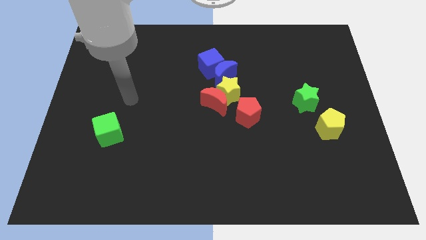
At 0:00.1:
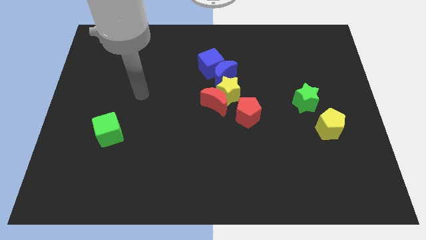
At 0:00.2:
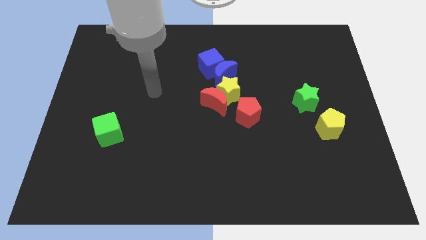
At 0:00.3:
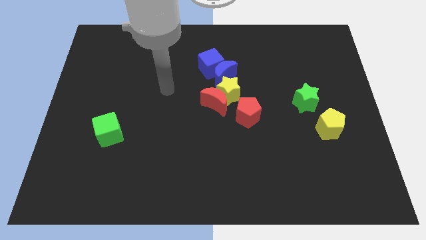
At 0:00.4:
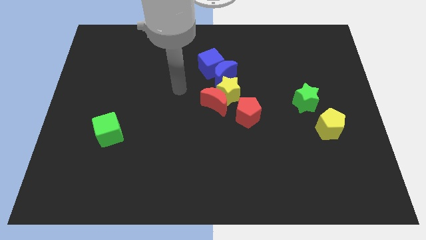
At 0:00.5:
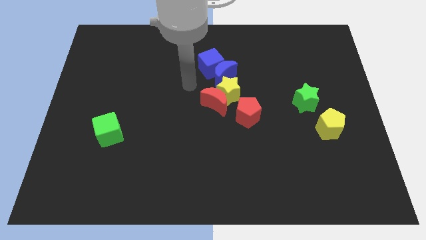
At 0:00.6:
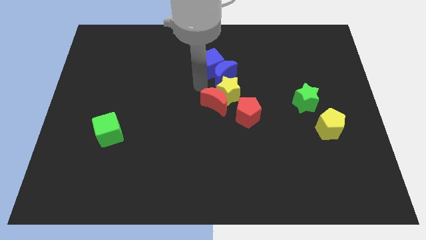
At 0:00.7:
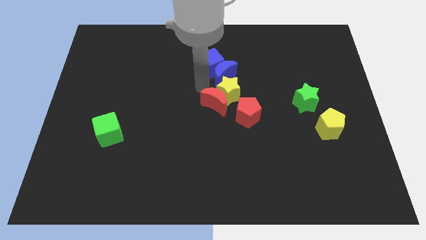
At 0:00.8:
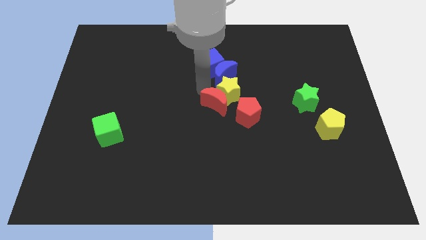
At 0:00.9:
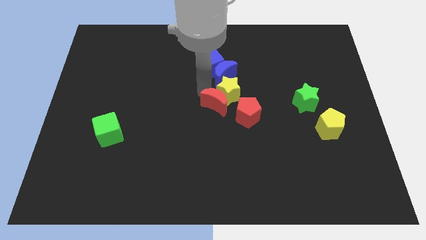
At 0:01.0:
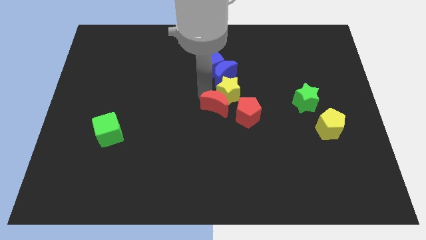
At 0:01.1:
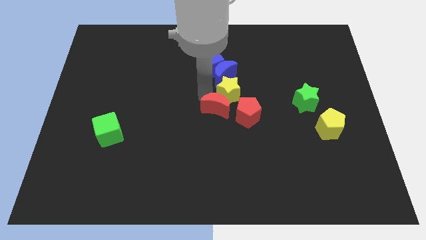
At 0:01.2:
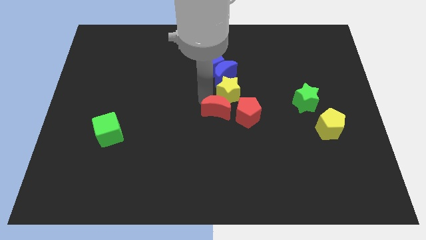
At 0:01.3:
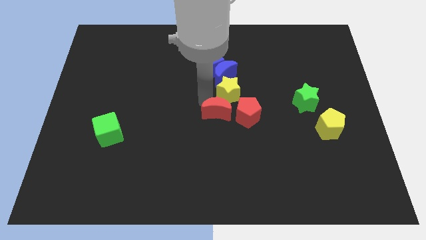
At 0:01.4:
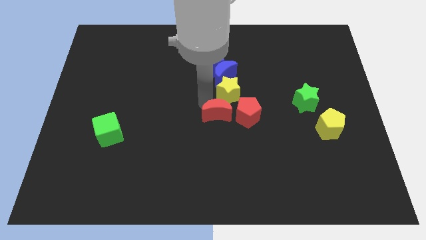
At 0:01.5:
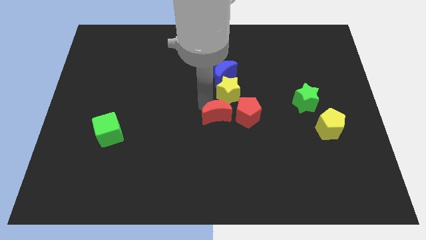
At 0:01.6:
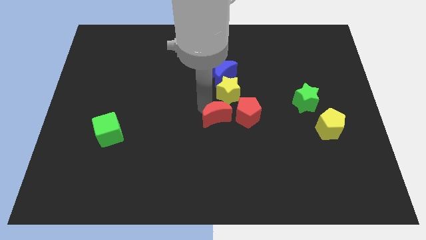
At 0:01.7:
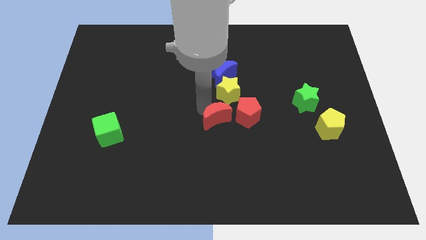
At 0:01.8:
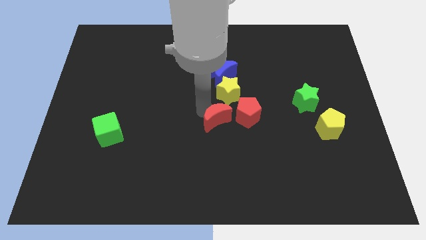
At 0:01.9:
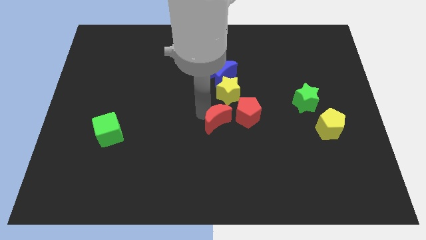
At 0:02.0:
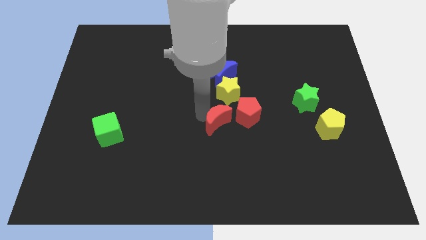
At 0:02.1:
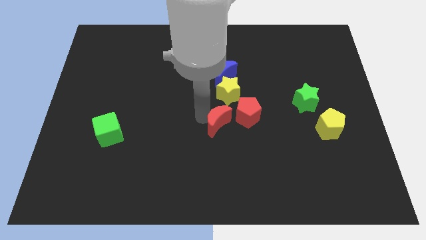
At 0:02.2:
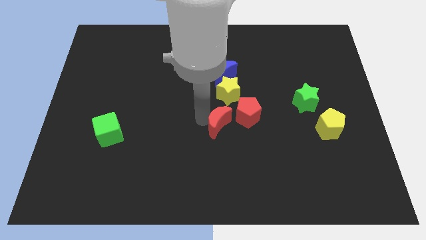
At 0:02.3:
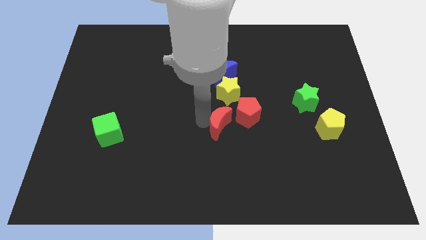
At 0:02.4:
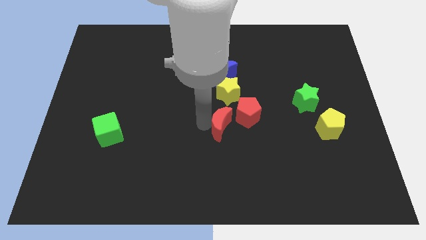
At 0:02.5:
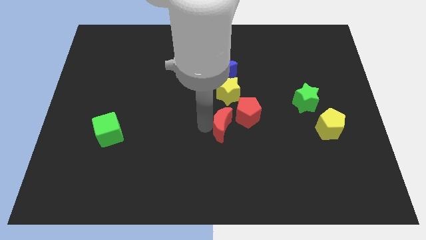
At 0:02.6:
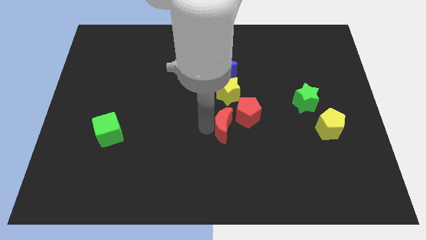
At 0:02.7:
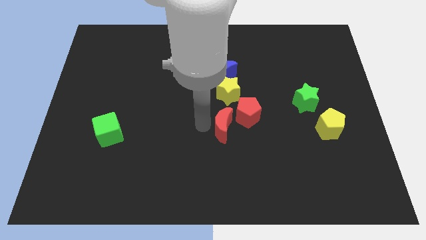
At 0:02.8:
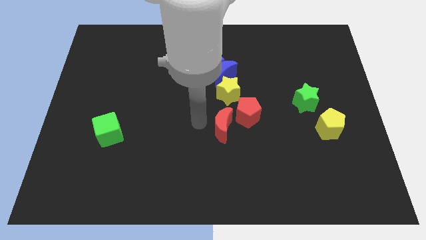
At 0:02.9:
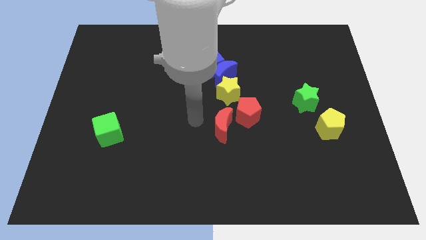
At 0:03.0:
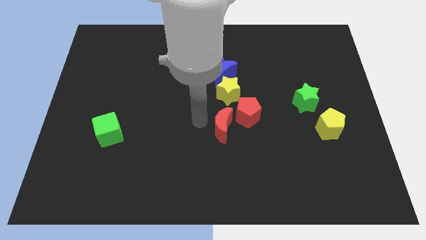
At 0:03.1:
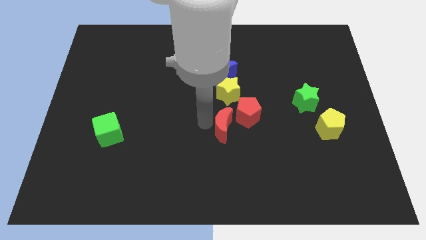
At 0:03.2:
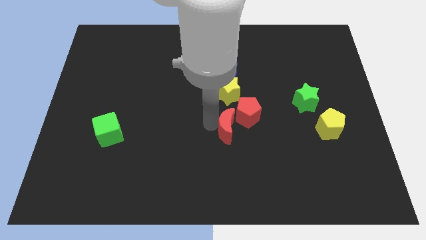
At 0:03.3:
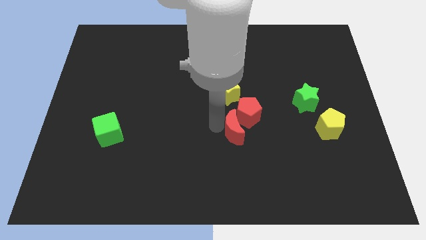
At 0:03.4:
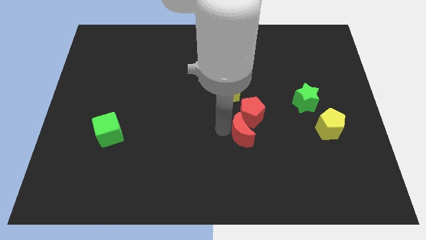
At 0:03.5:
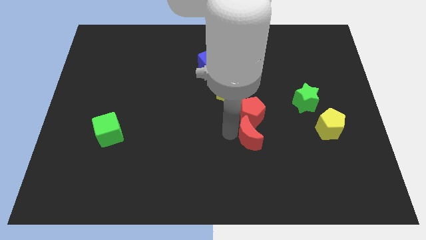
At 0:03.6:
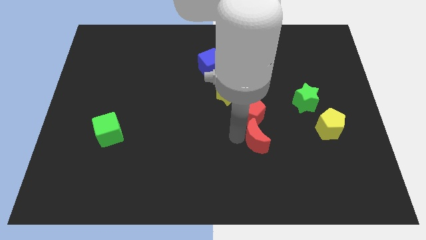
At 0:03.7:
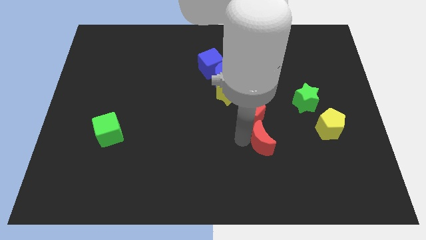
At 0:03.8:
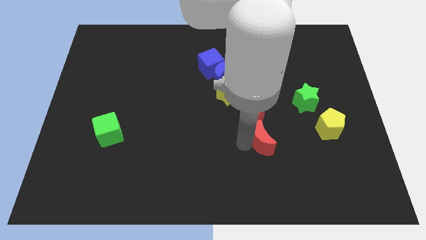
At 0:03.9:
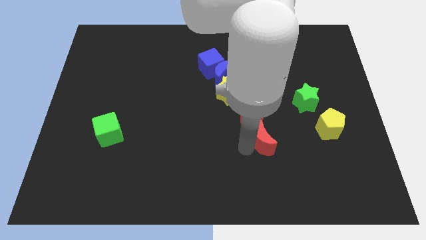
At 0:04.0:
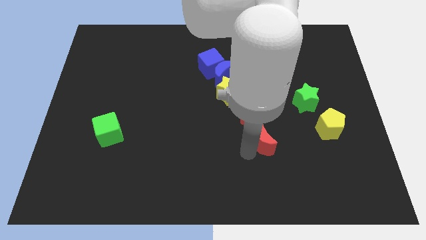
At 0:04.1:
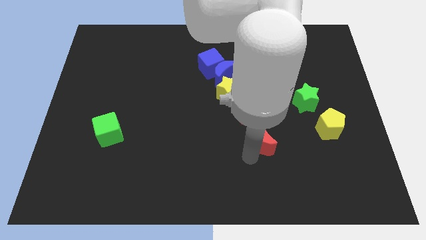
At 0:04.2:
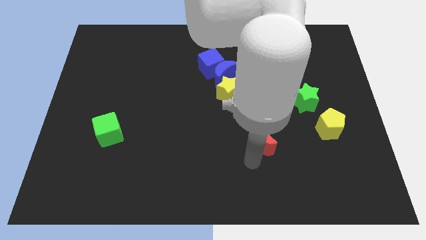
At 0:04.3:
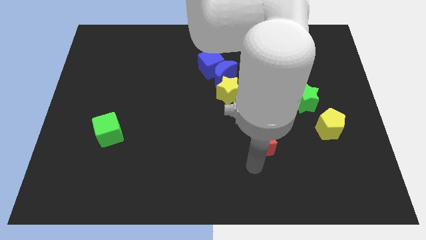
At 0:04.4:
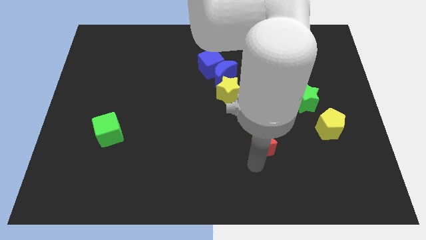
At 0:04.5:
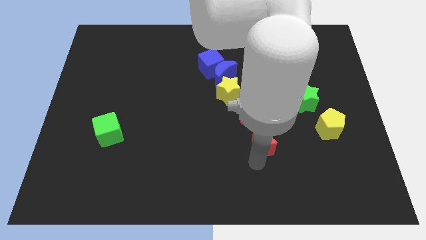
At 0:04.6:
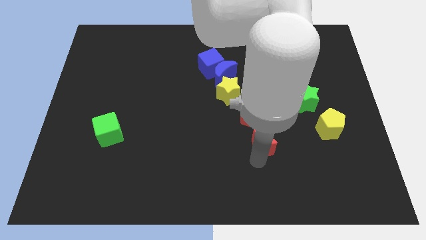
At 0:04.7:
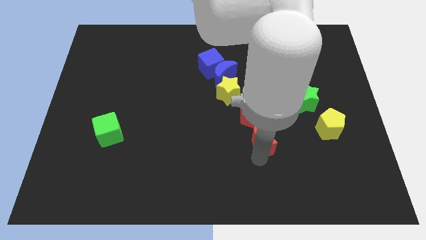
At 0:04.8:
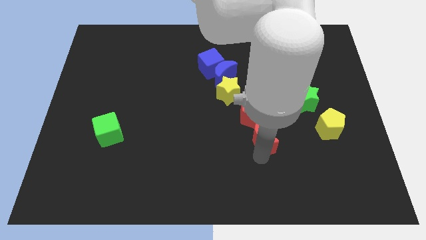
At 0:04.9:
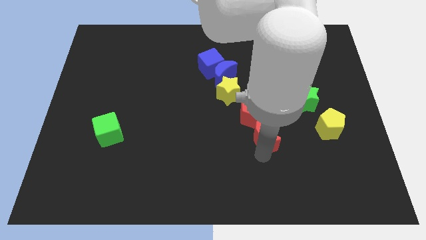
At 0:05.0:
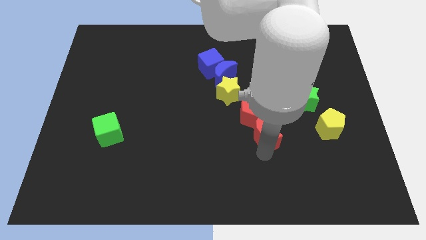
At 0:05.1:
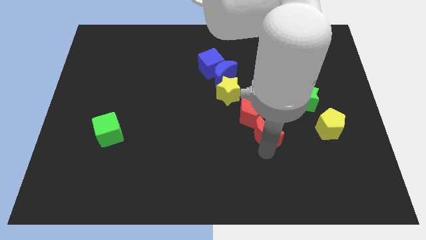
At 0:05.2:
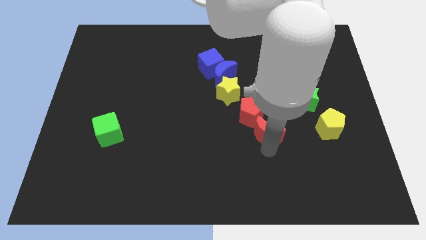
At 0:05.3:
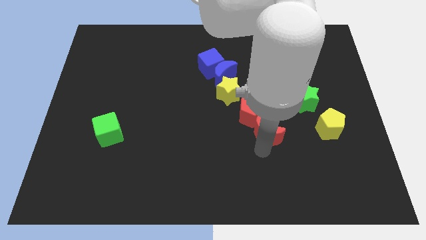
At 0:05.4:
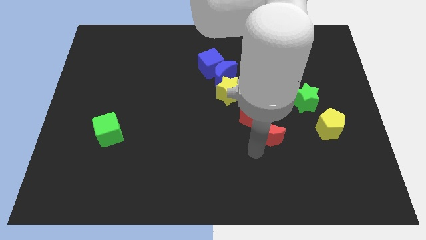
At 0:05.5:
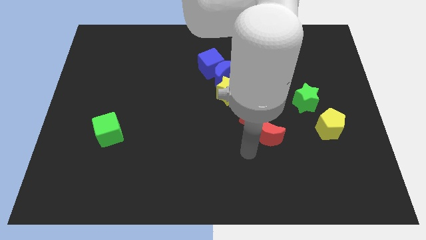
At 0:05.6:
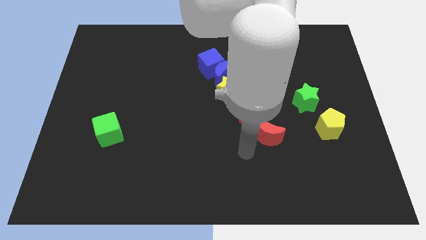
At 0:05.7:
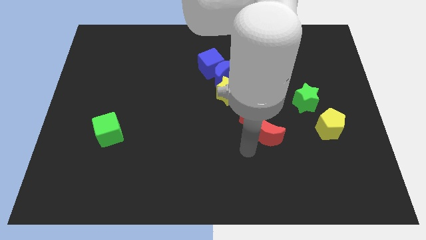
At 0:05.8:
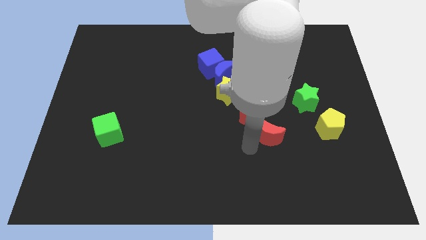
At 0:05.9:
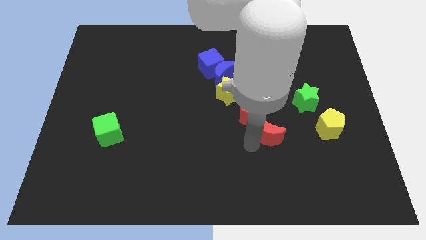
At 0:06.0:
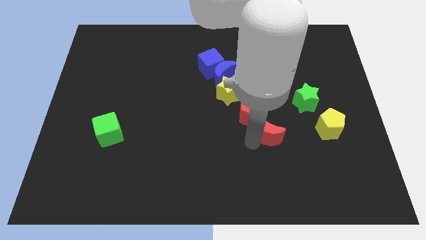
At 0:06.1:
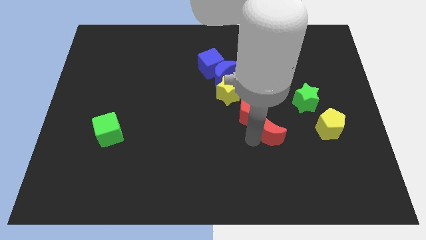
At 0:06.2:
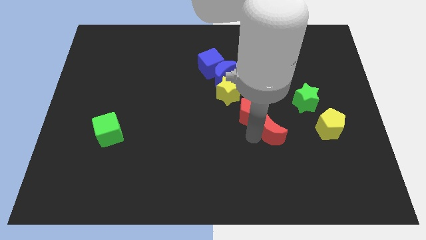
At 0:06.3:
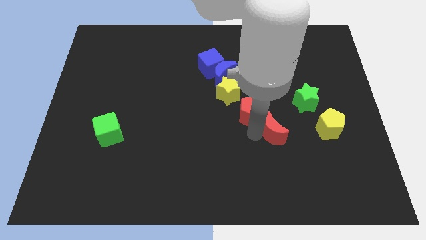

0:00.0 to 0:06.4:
slide the red moon to the bottom left of the green star
